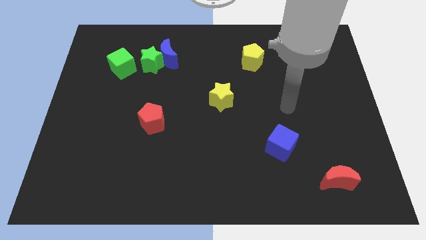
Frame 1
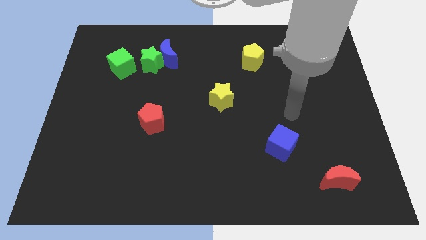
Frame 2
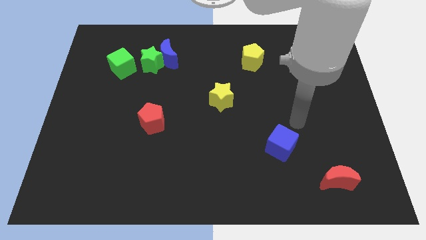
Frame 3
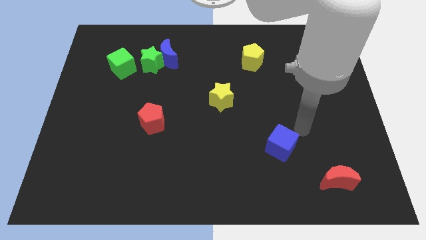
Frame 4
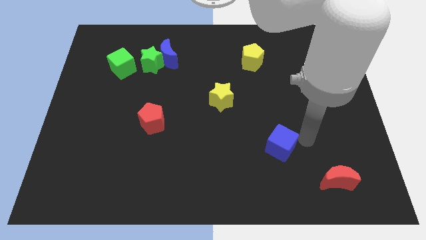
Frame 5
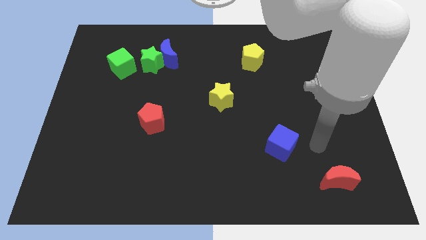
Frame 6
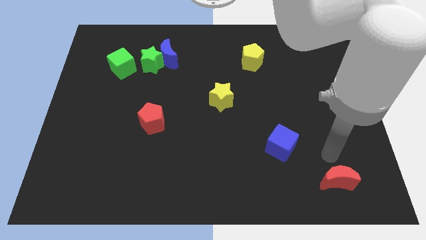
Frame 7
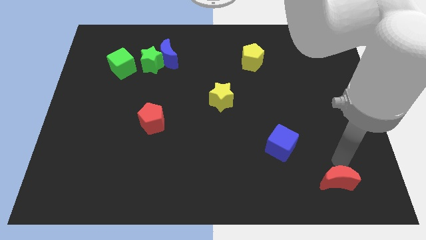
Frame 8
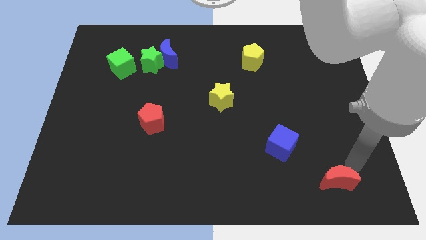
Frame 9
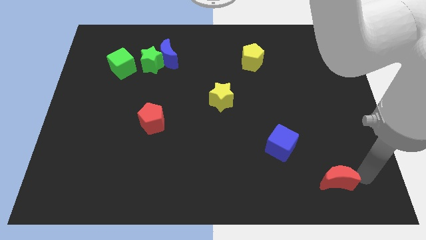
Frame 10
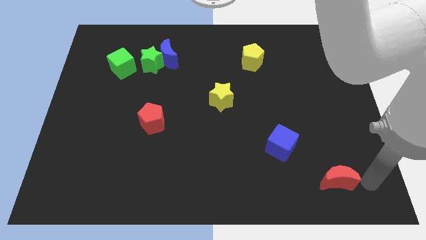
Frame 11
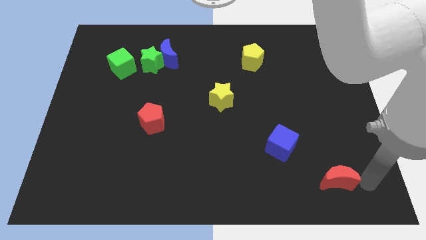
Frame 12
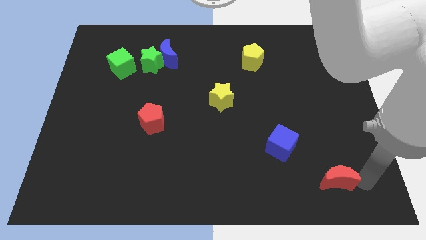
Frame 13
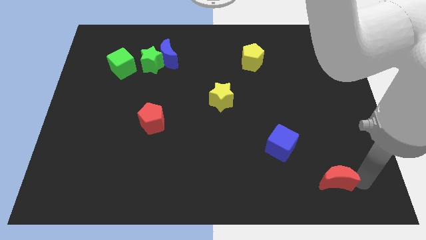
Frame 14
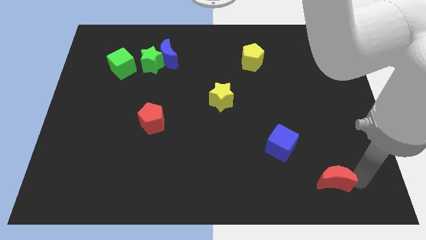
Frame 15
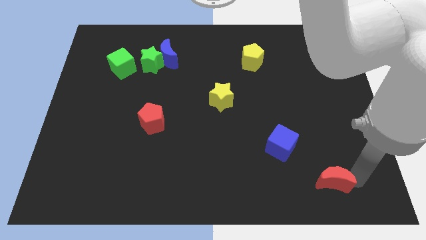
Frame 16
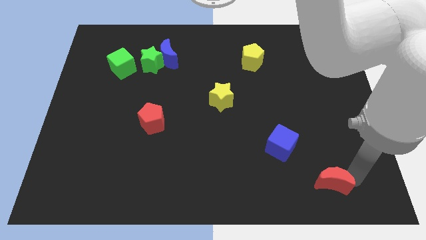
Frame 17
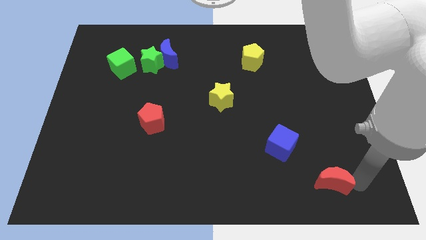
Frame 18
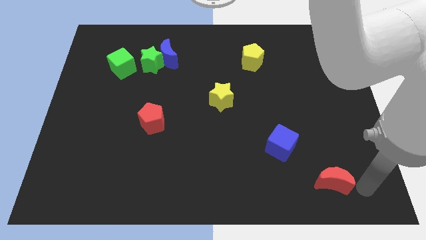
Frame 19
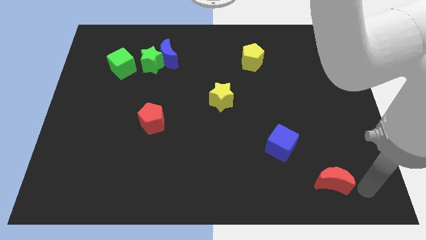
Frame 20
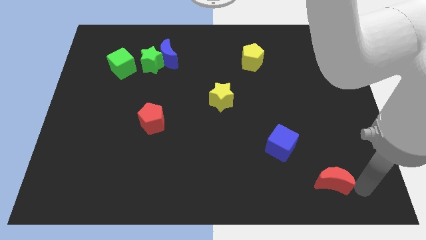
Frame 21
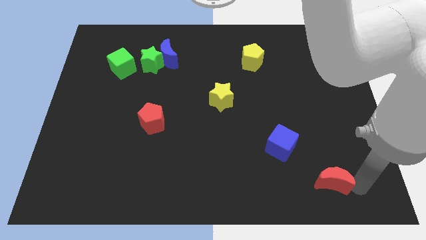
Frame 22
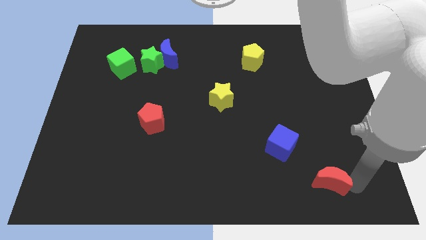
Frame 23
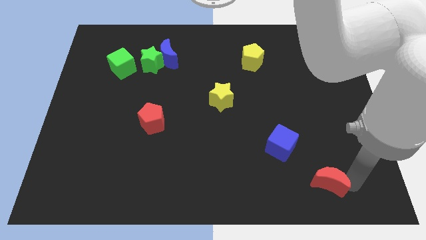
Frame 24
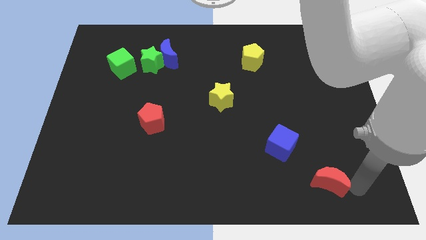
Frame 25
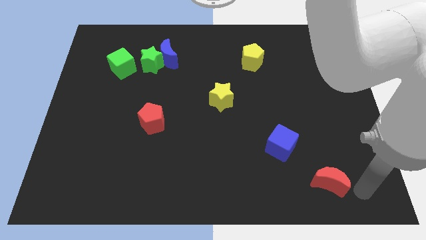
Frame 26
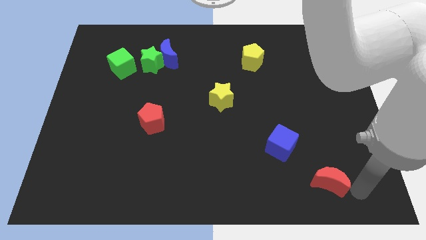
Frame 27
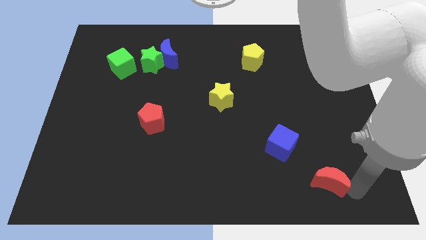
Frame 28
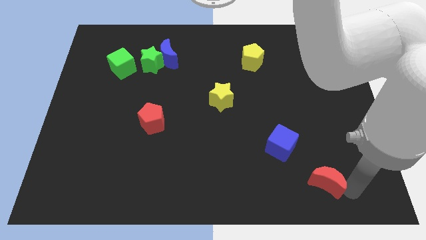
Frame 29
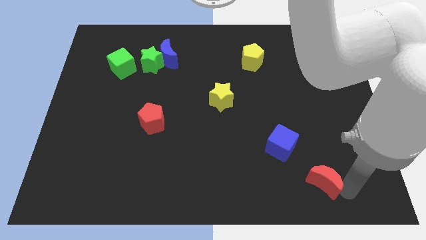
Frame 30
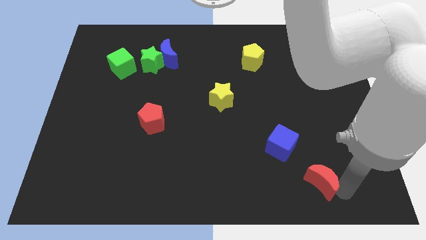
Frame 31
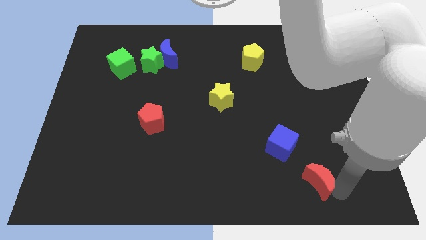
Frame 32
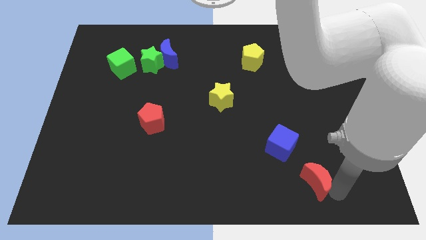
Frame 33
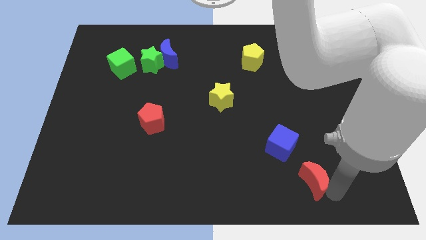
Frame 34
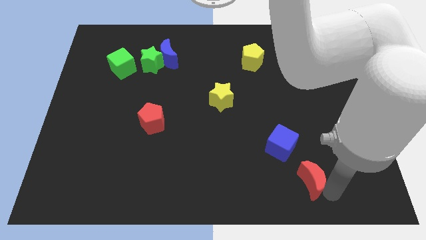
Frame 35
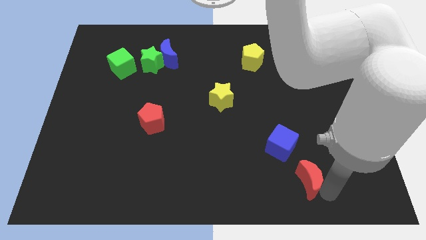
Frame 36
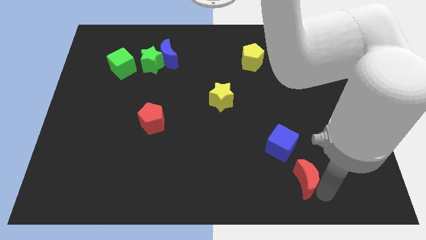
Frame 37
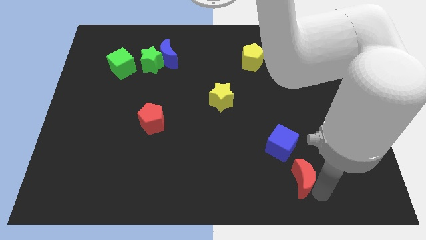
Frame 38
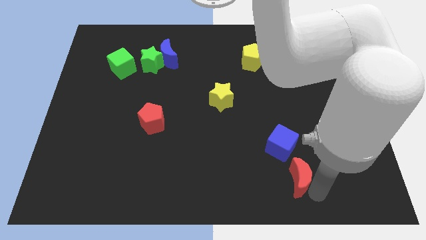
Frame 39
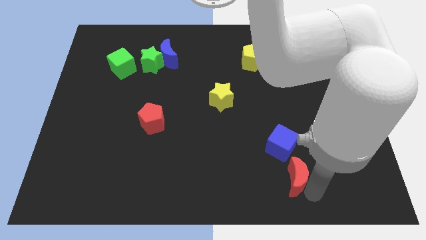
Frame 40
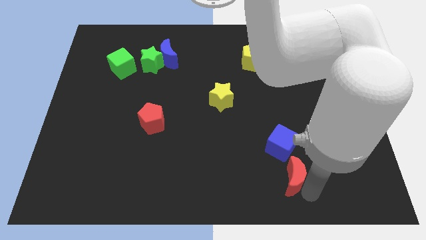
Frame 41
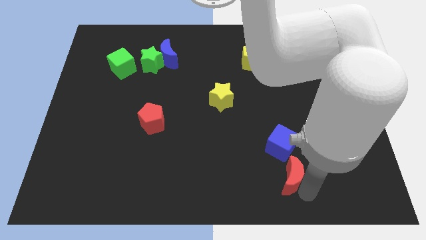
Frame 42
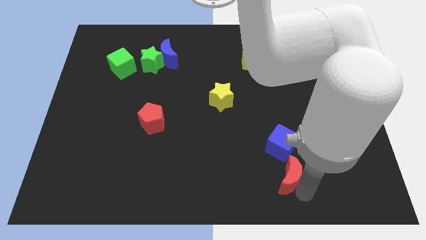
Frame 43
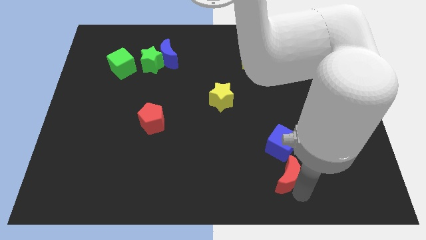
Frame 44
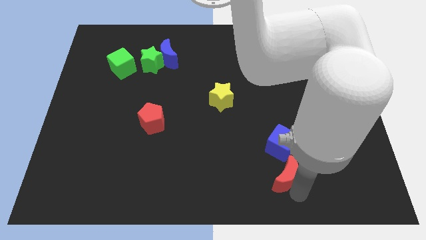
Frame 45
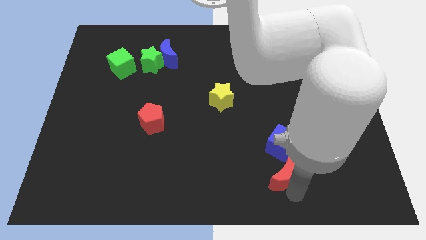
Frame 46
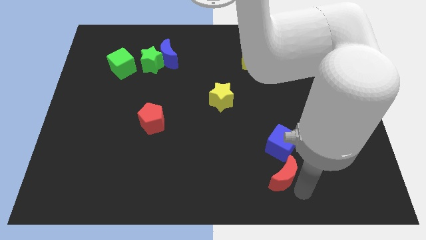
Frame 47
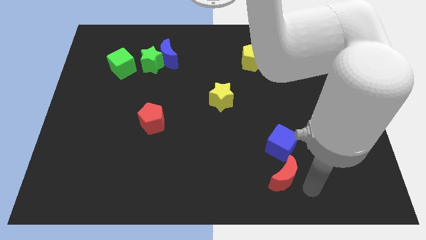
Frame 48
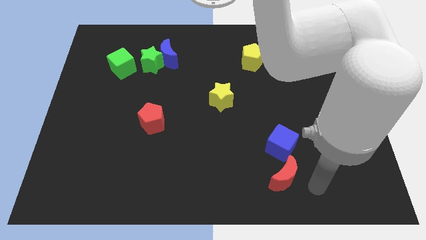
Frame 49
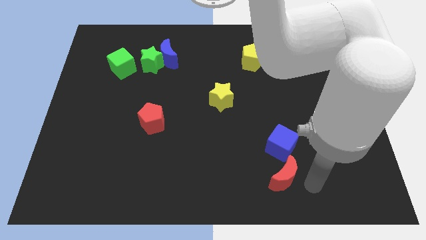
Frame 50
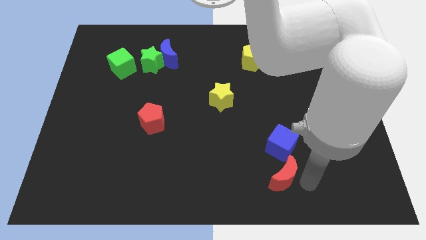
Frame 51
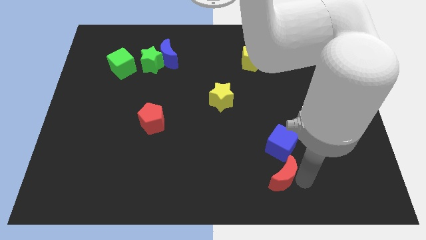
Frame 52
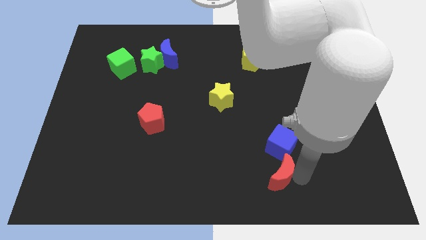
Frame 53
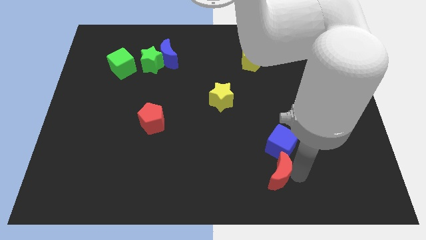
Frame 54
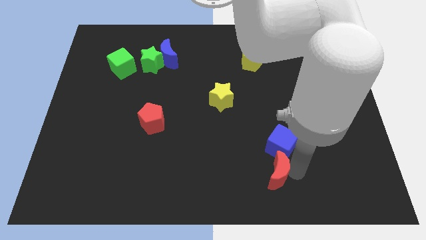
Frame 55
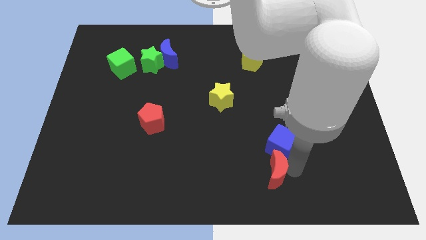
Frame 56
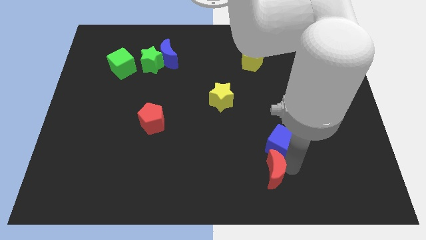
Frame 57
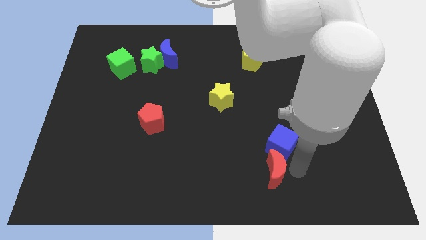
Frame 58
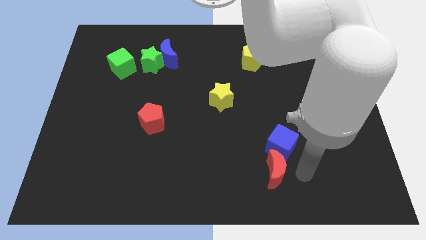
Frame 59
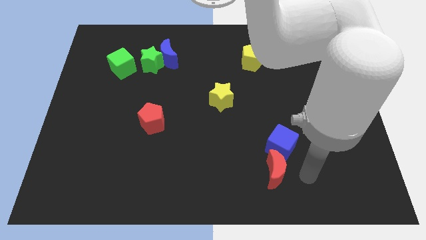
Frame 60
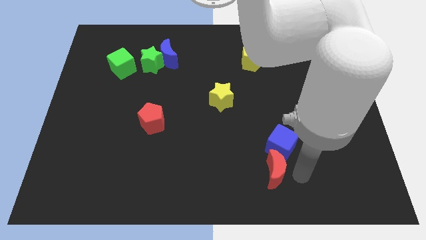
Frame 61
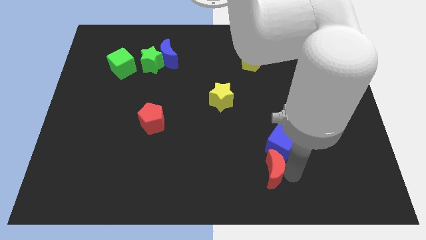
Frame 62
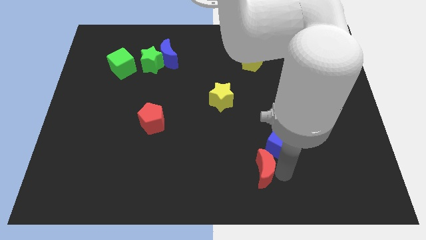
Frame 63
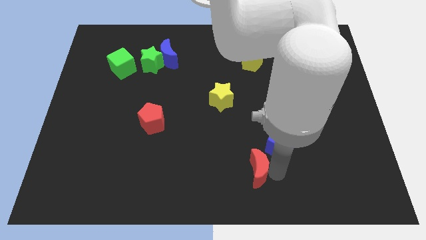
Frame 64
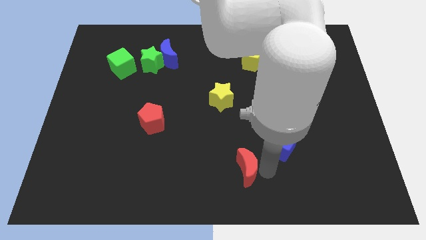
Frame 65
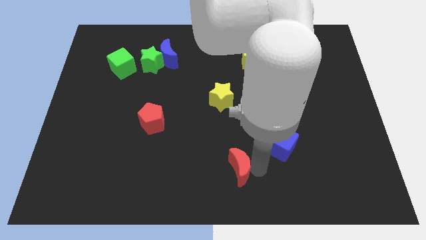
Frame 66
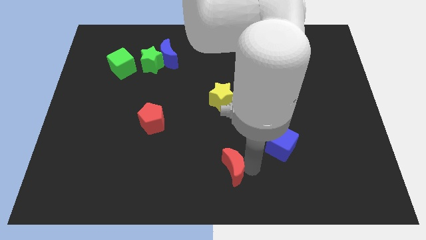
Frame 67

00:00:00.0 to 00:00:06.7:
push the red moon left

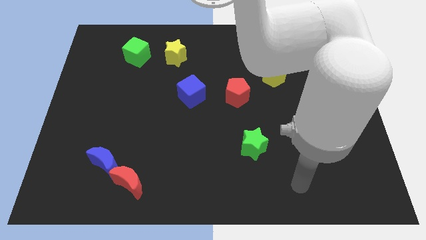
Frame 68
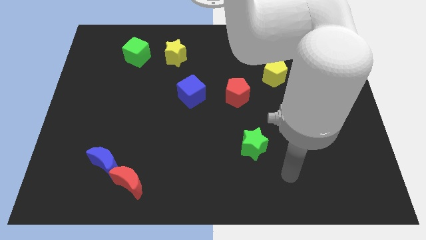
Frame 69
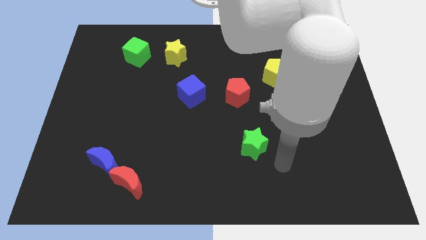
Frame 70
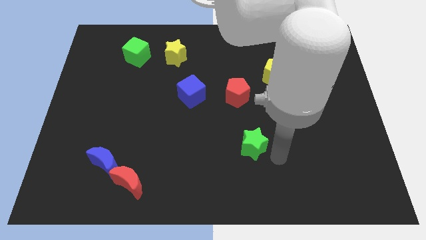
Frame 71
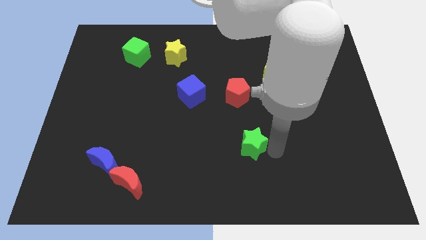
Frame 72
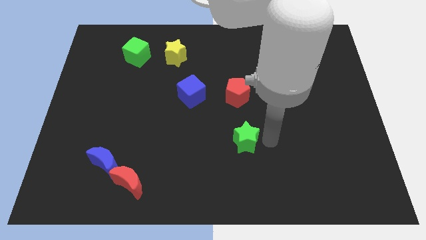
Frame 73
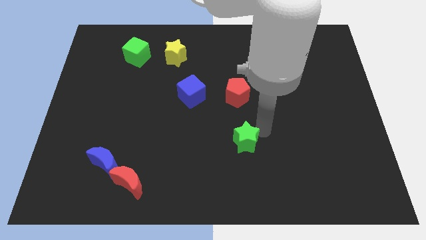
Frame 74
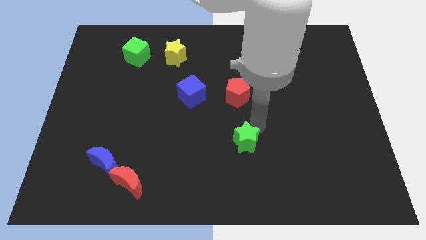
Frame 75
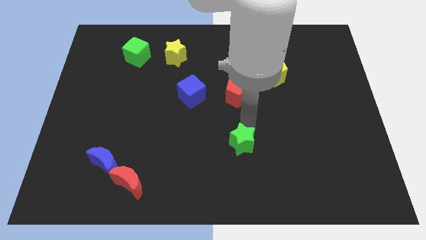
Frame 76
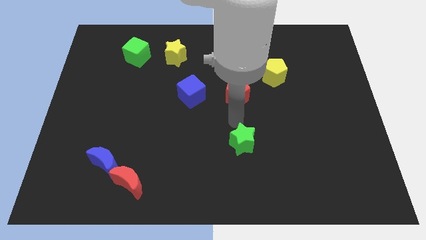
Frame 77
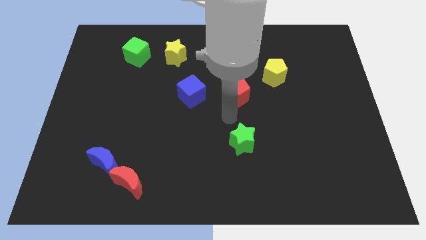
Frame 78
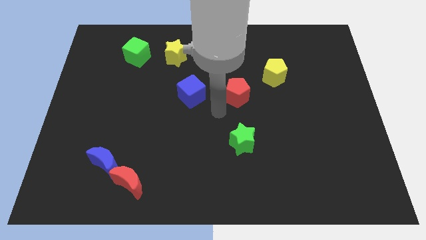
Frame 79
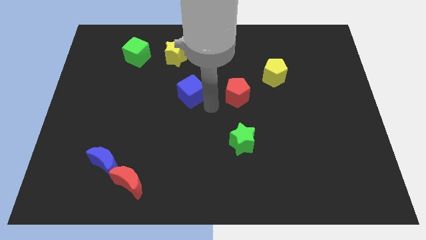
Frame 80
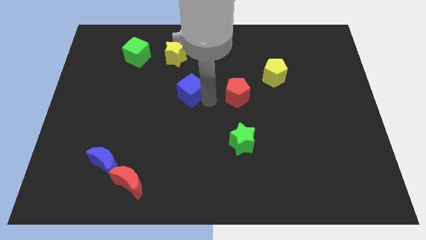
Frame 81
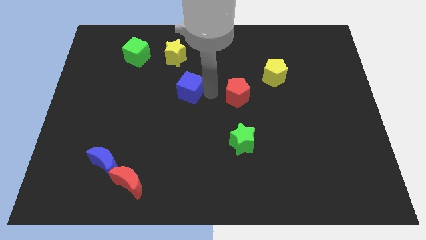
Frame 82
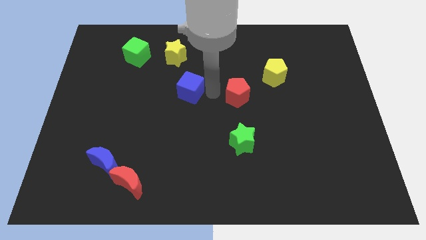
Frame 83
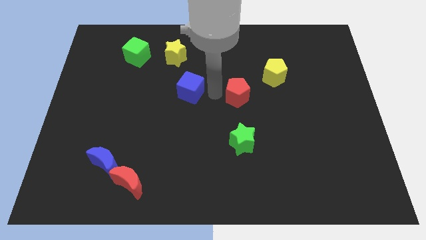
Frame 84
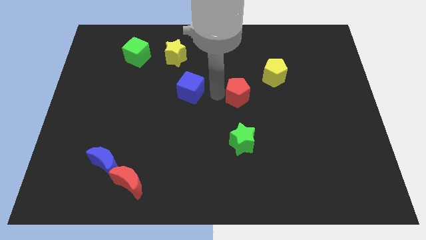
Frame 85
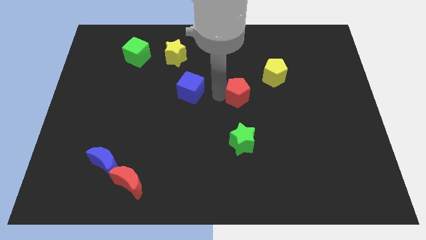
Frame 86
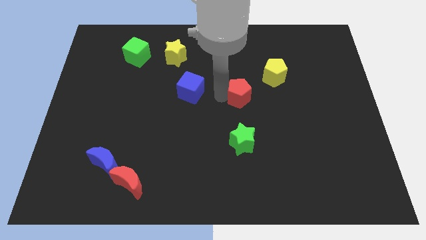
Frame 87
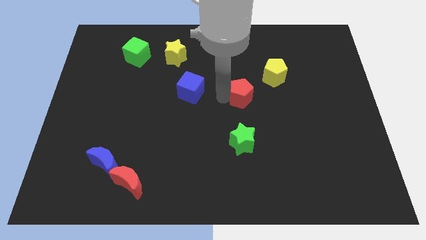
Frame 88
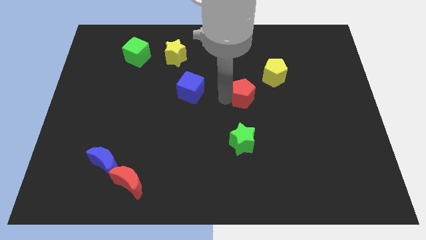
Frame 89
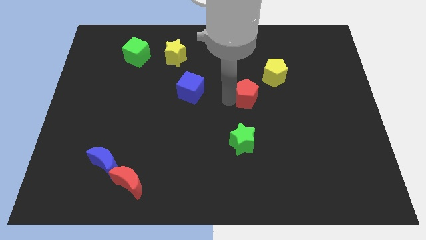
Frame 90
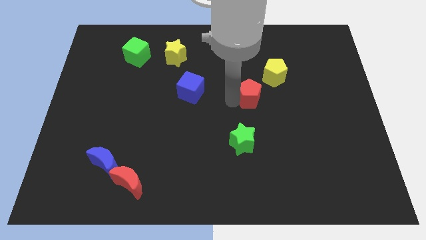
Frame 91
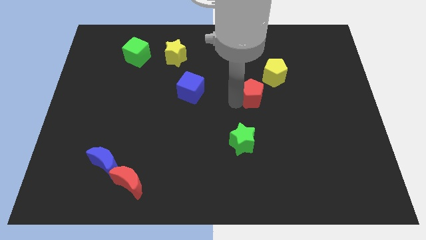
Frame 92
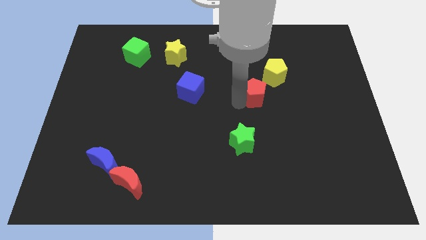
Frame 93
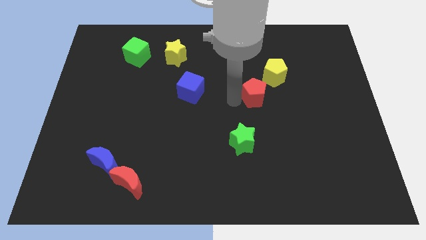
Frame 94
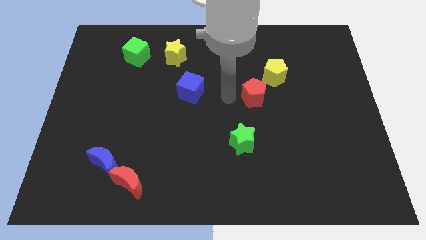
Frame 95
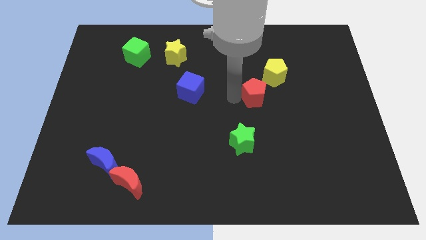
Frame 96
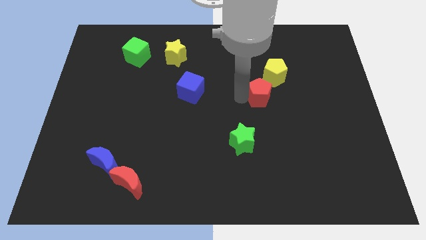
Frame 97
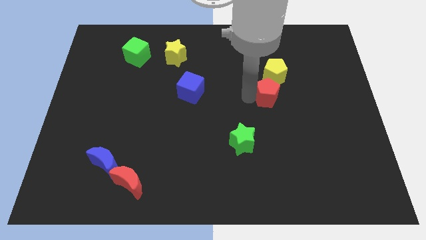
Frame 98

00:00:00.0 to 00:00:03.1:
push the red pentagon to the right somewhat
